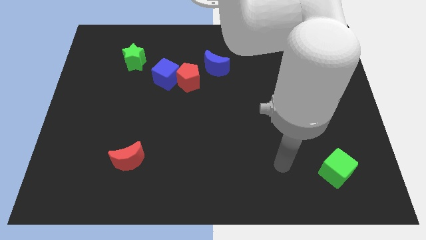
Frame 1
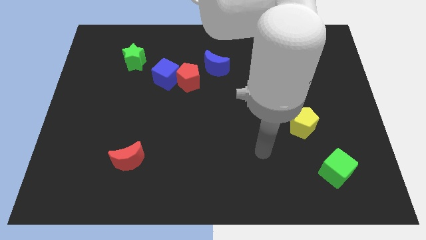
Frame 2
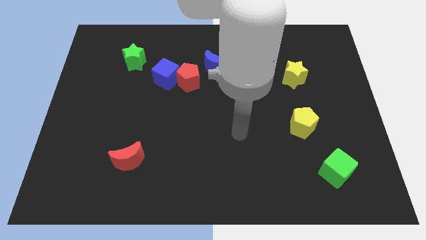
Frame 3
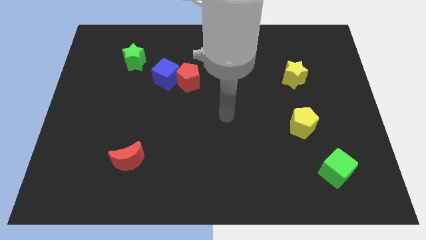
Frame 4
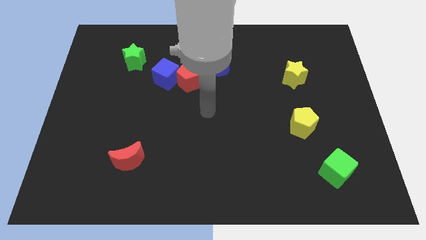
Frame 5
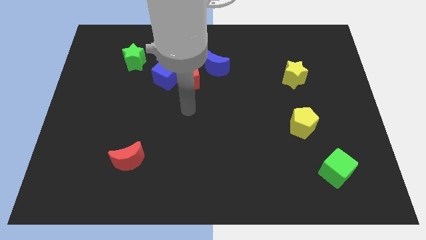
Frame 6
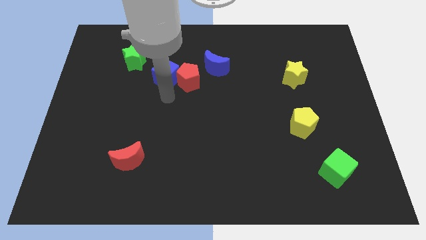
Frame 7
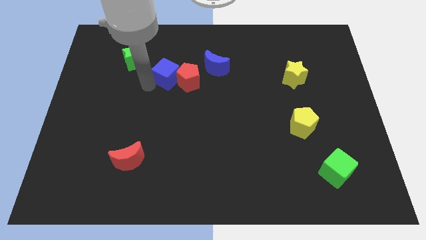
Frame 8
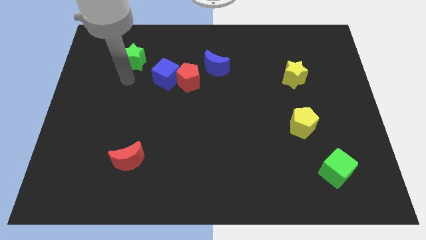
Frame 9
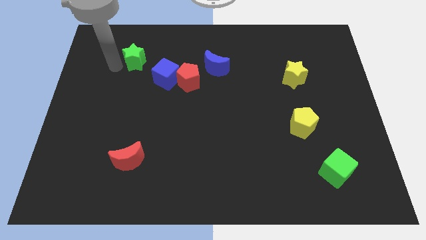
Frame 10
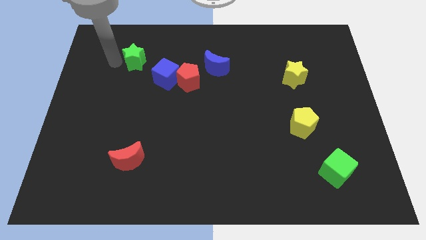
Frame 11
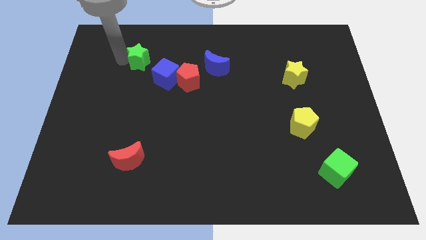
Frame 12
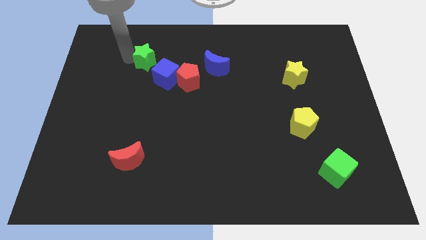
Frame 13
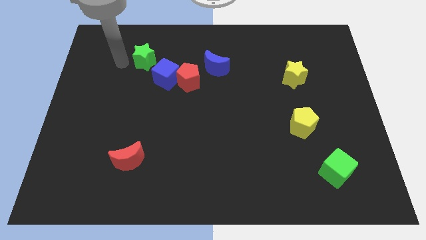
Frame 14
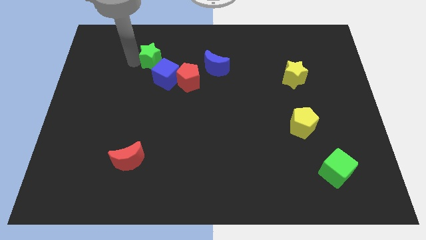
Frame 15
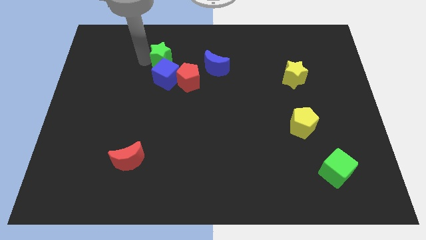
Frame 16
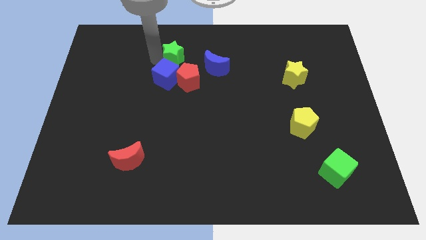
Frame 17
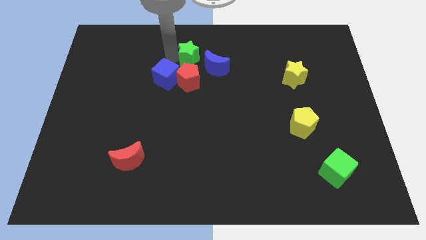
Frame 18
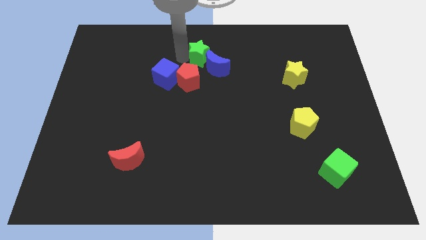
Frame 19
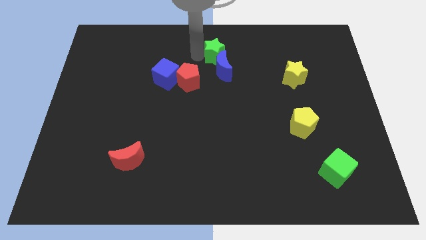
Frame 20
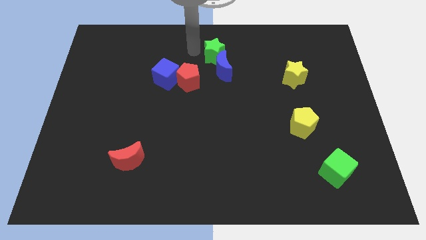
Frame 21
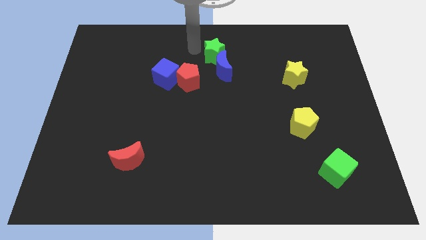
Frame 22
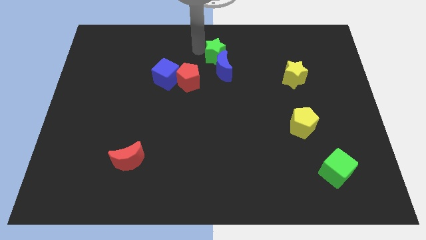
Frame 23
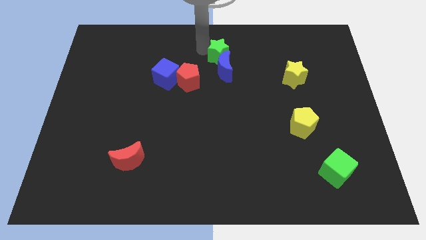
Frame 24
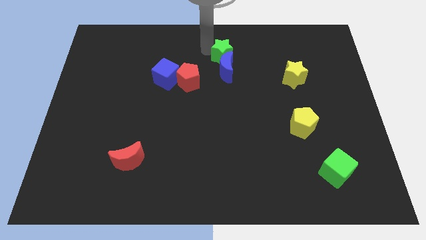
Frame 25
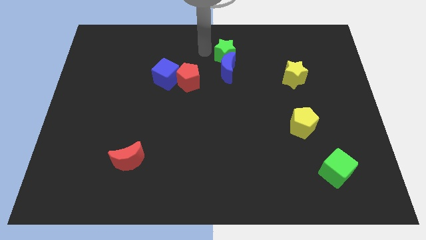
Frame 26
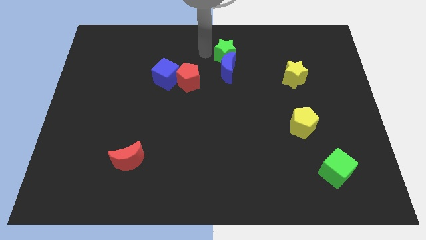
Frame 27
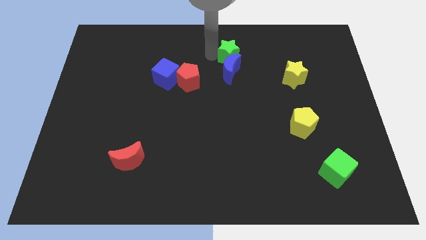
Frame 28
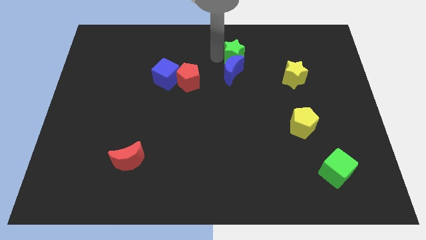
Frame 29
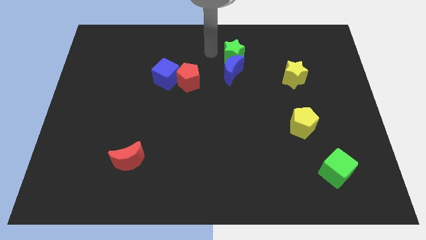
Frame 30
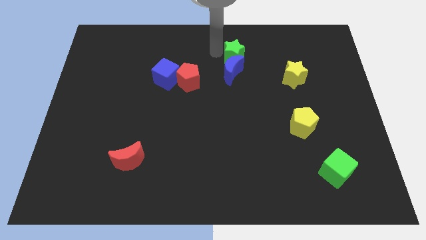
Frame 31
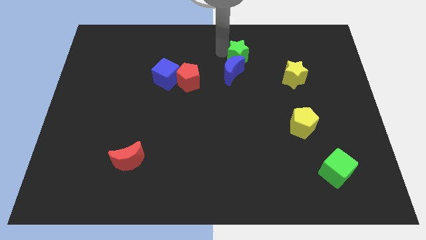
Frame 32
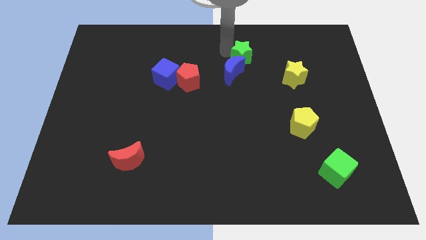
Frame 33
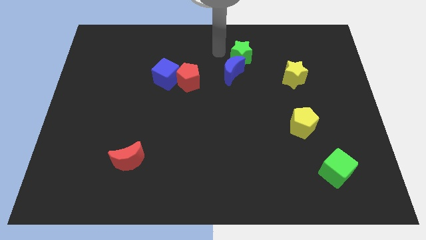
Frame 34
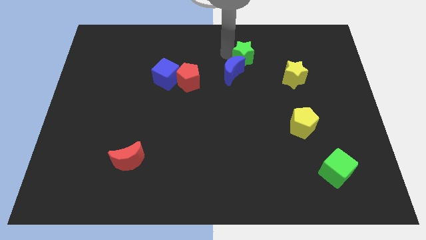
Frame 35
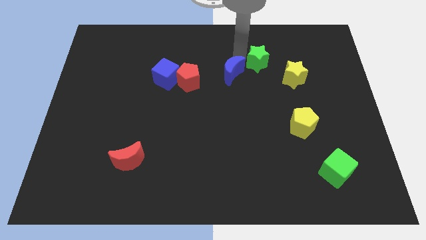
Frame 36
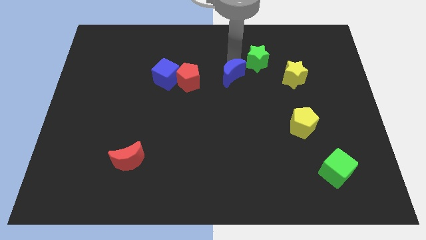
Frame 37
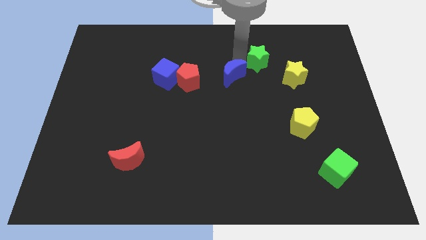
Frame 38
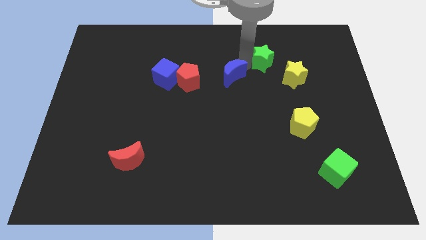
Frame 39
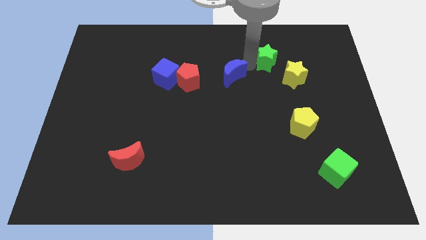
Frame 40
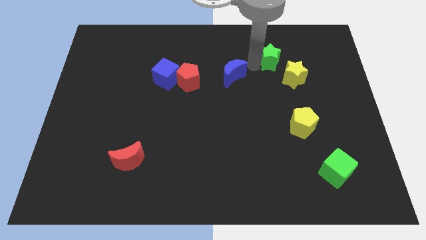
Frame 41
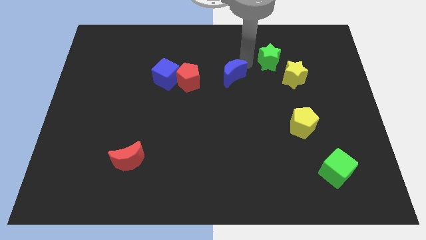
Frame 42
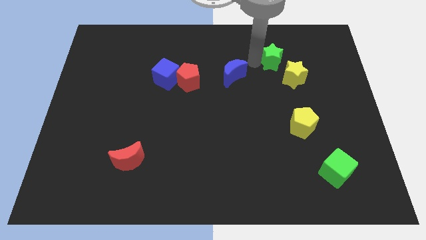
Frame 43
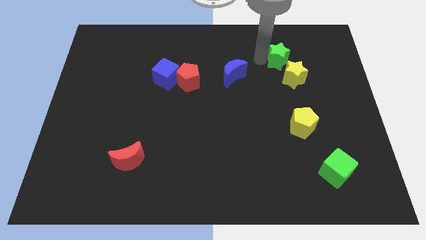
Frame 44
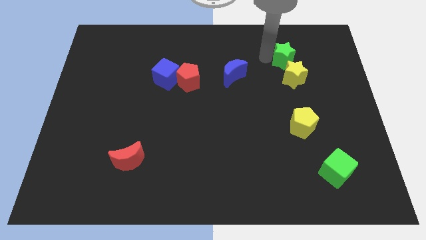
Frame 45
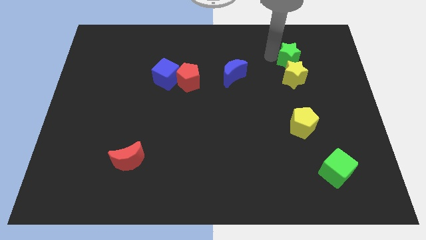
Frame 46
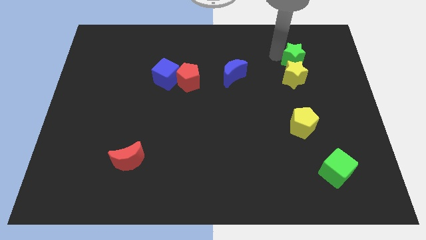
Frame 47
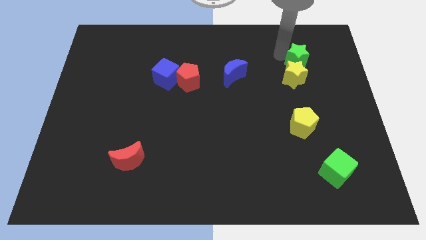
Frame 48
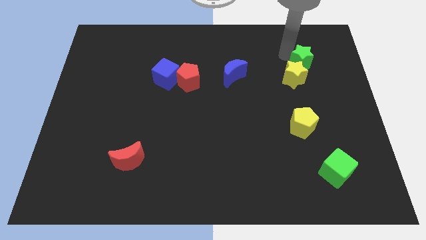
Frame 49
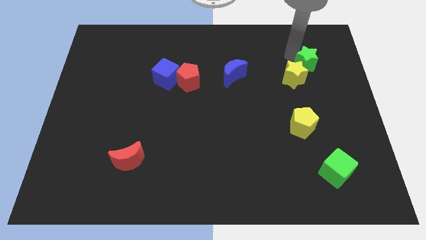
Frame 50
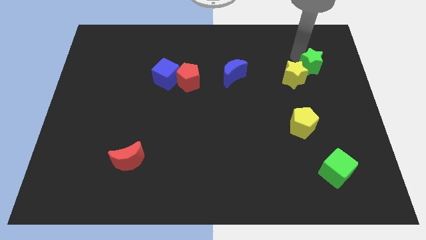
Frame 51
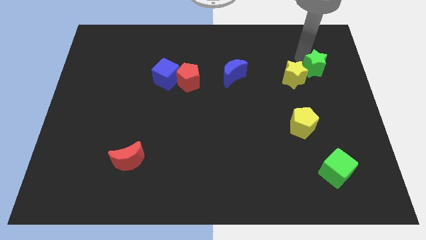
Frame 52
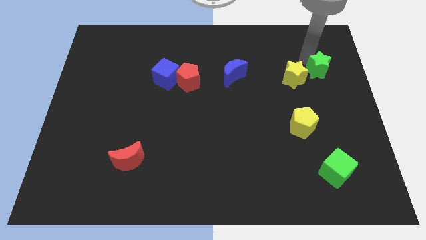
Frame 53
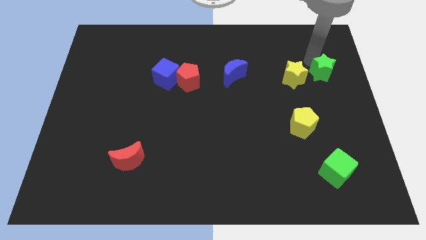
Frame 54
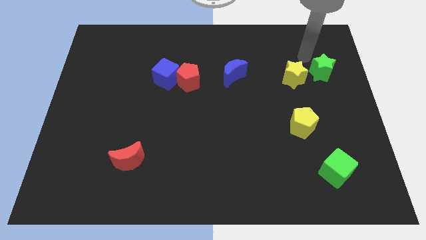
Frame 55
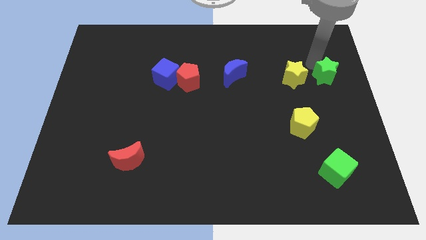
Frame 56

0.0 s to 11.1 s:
slide the green star to the right side of the board
